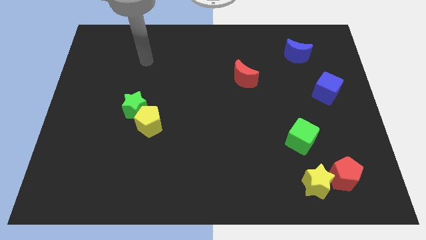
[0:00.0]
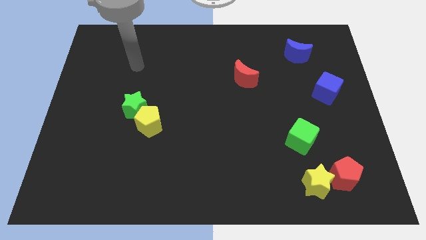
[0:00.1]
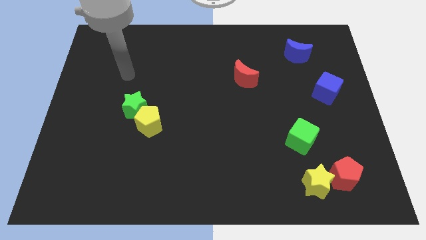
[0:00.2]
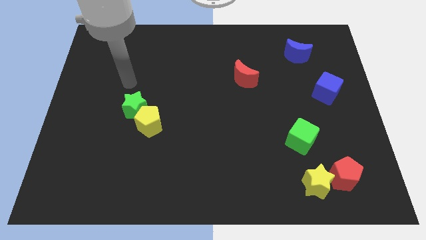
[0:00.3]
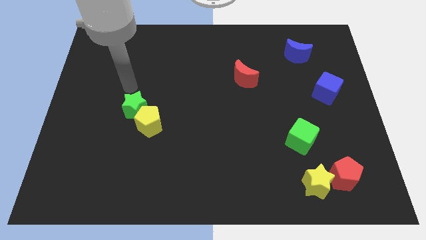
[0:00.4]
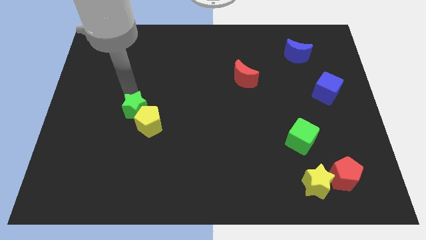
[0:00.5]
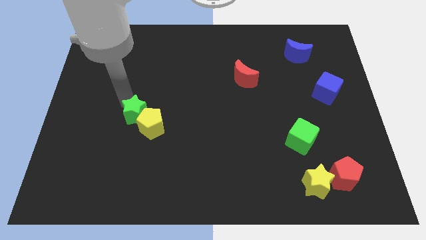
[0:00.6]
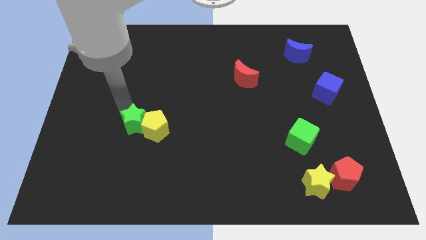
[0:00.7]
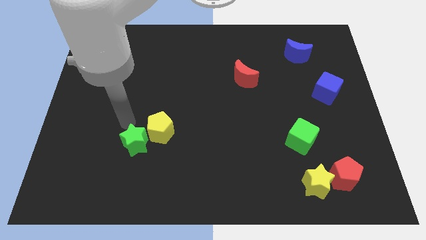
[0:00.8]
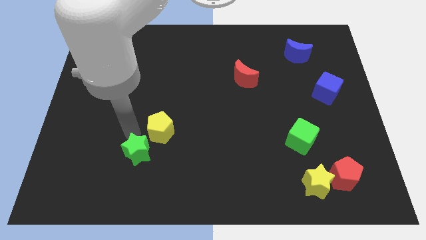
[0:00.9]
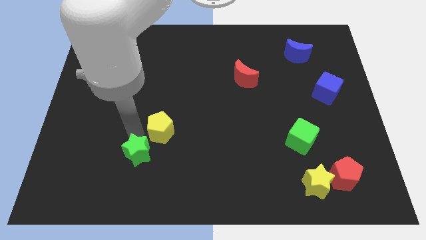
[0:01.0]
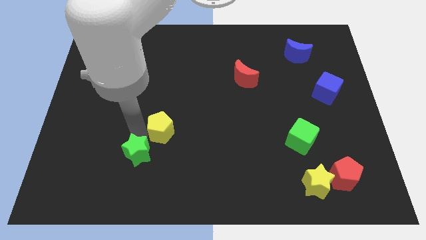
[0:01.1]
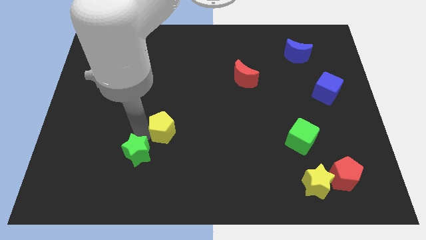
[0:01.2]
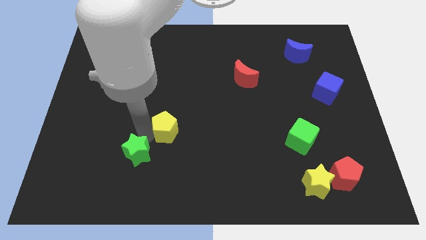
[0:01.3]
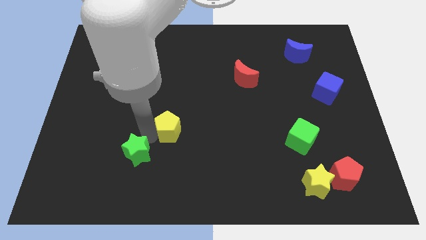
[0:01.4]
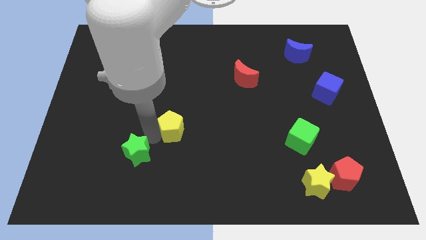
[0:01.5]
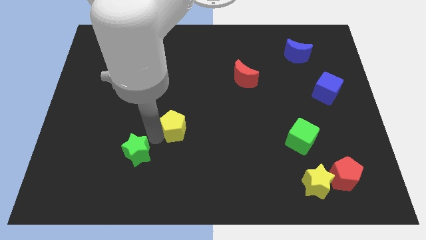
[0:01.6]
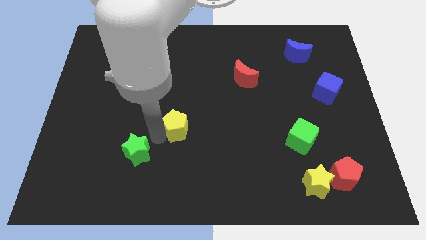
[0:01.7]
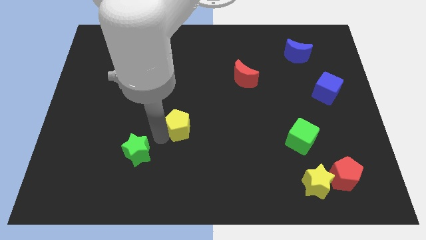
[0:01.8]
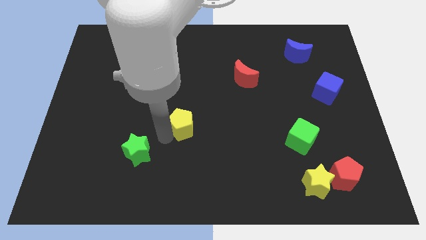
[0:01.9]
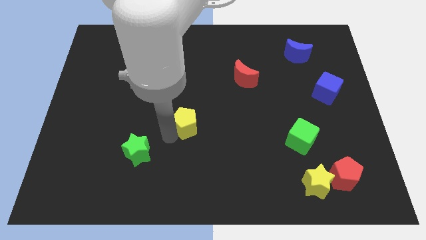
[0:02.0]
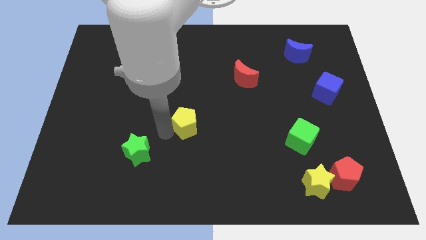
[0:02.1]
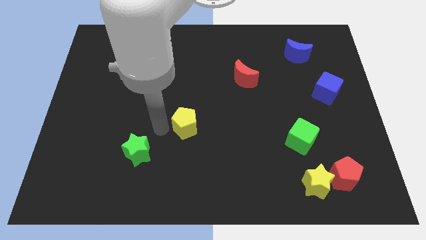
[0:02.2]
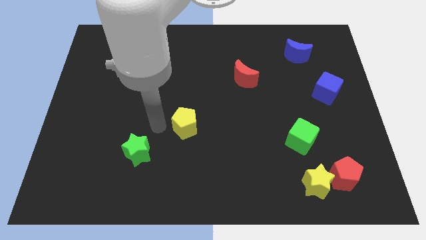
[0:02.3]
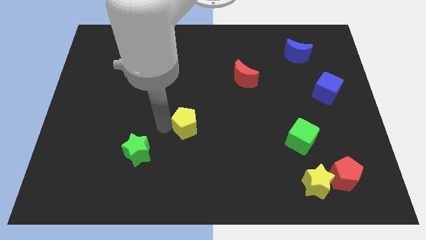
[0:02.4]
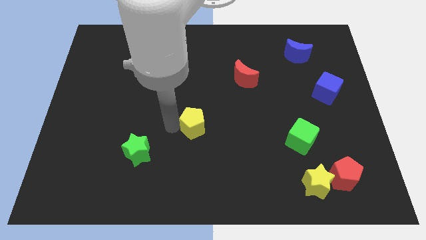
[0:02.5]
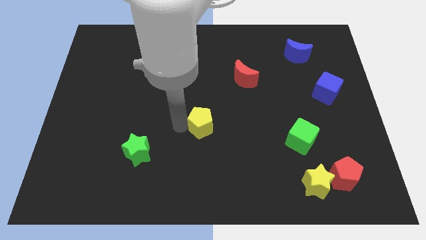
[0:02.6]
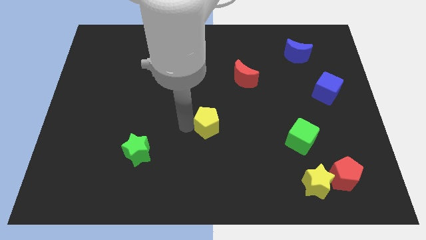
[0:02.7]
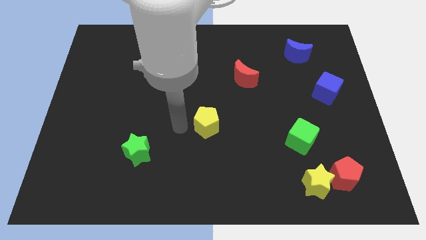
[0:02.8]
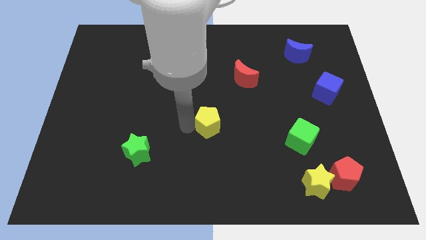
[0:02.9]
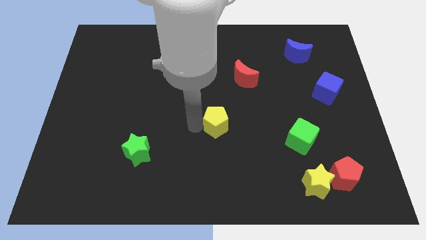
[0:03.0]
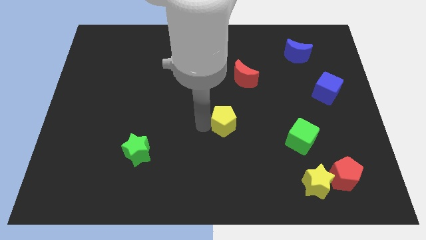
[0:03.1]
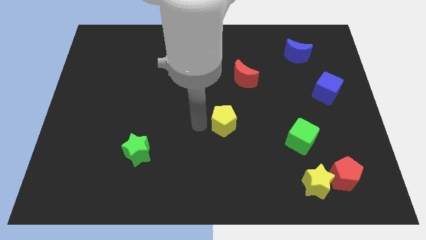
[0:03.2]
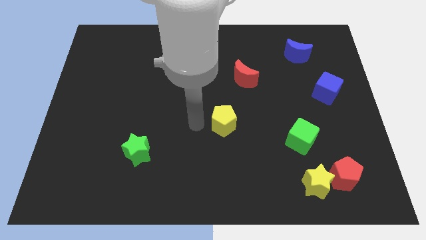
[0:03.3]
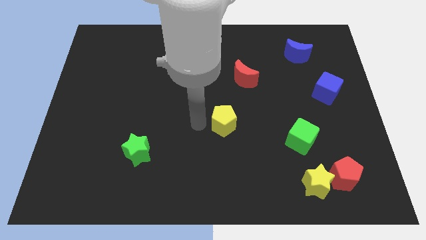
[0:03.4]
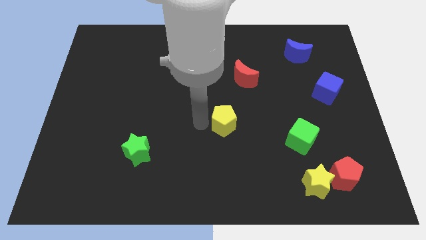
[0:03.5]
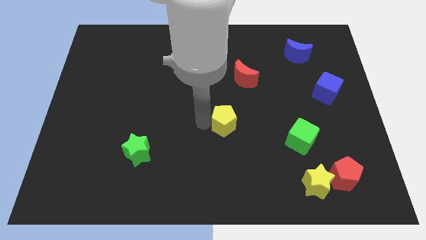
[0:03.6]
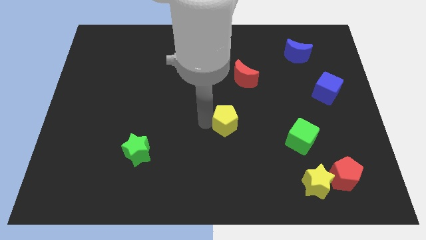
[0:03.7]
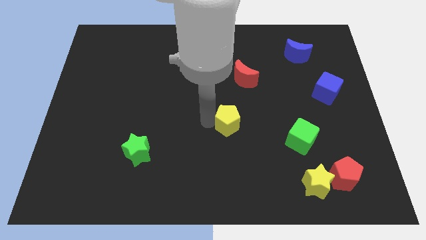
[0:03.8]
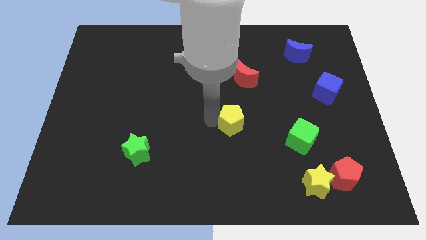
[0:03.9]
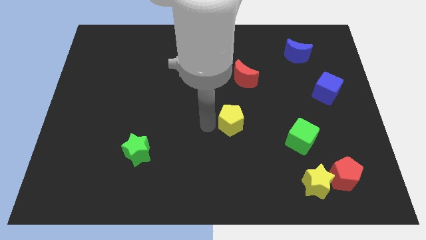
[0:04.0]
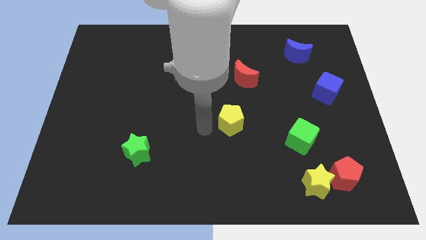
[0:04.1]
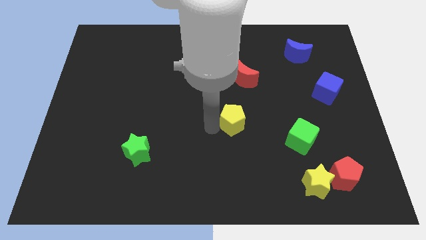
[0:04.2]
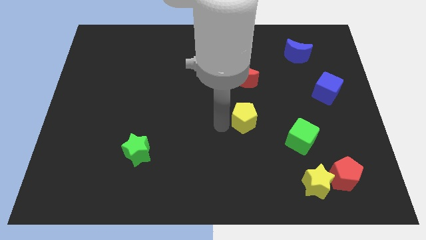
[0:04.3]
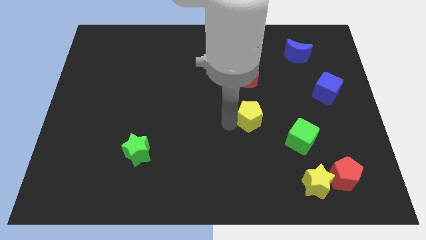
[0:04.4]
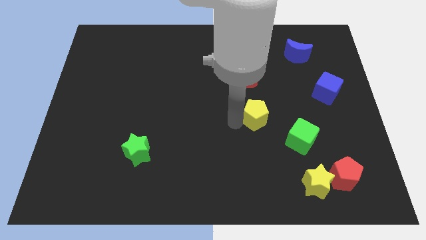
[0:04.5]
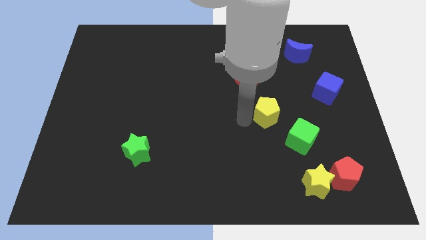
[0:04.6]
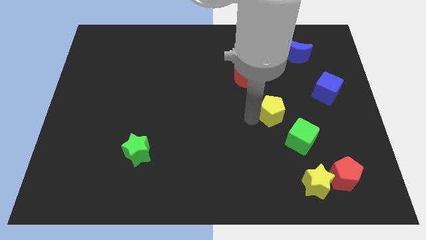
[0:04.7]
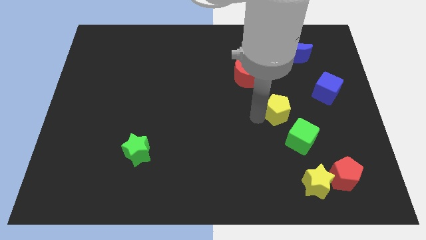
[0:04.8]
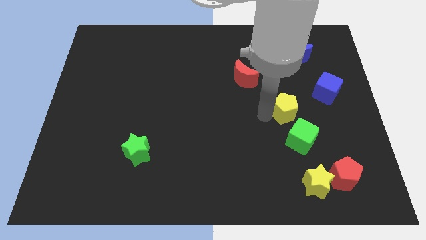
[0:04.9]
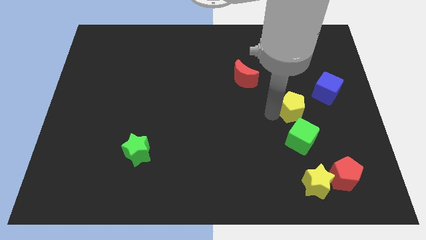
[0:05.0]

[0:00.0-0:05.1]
slide the yellow pentagon diagonally down and to the left of the blue cube

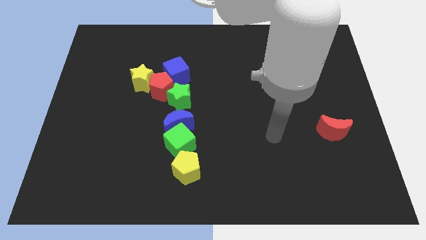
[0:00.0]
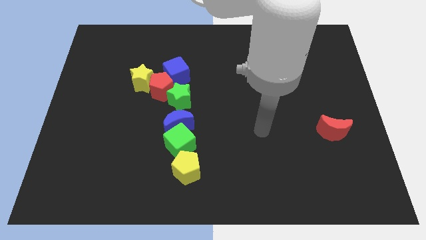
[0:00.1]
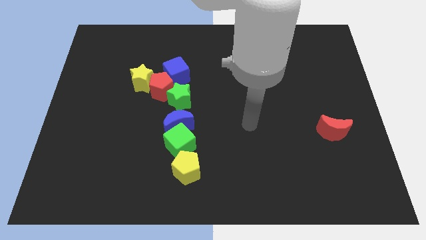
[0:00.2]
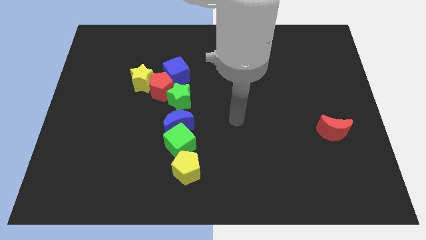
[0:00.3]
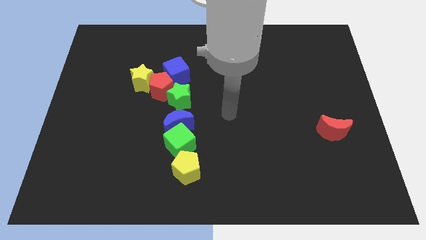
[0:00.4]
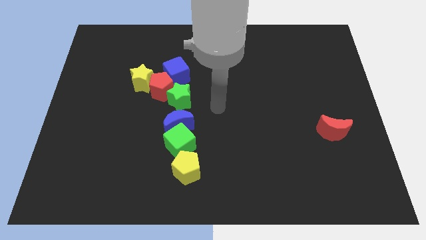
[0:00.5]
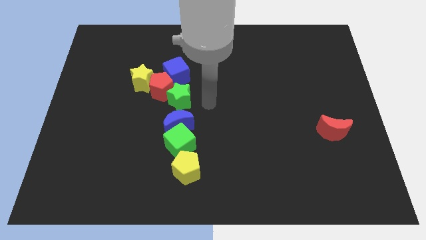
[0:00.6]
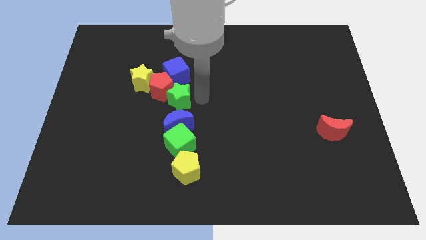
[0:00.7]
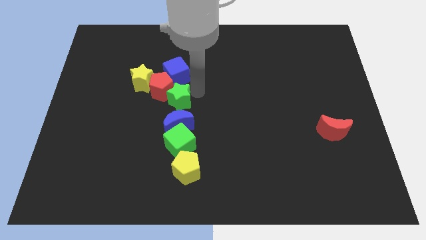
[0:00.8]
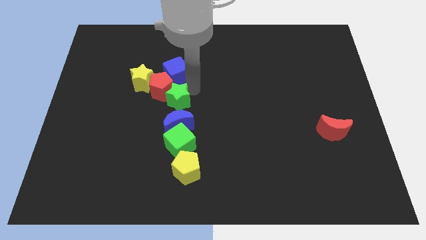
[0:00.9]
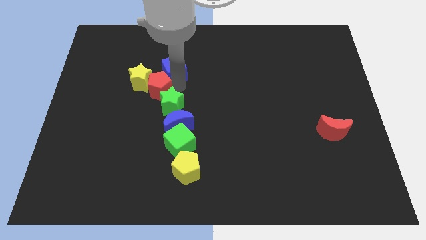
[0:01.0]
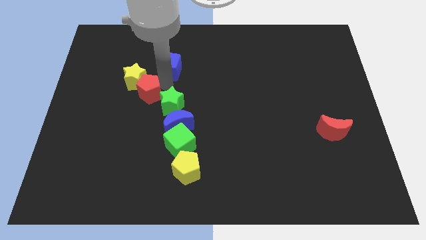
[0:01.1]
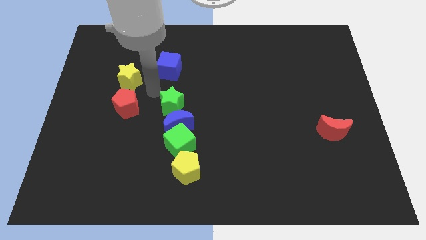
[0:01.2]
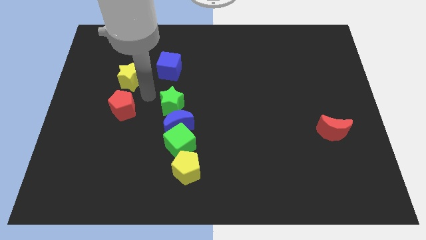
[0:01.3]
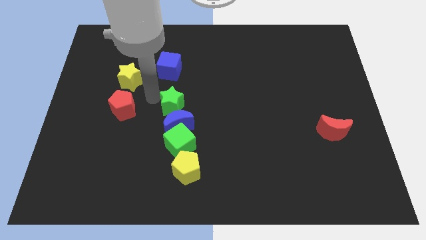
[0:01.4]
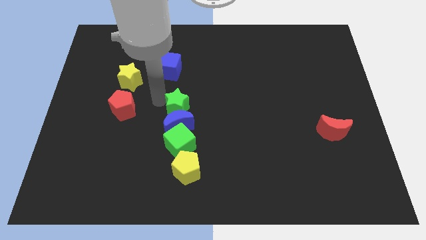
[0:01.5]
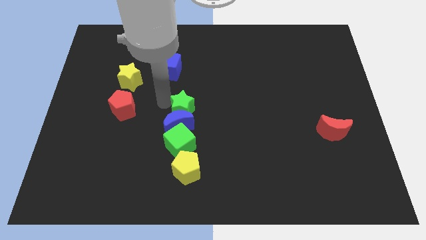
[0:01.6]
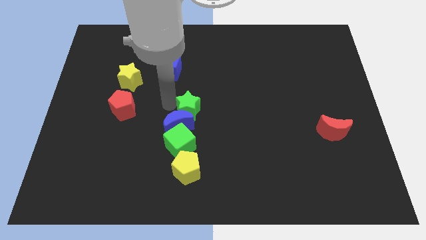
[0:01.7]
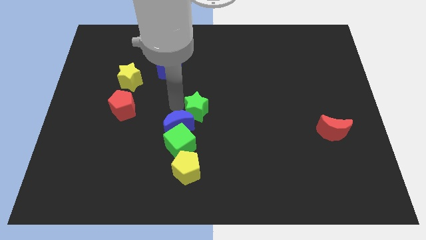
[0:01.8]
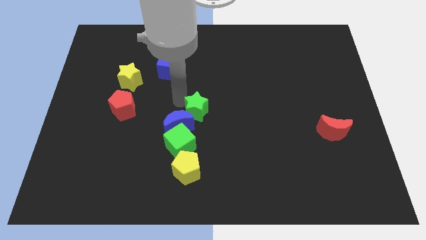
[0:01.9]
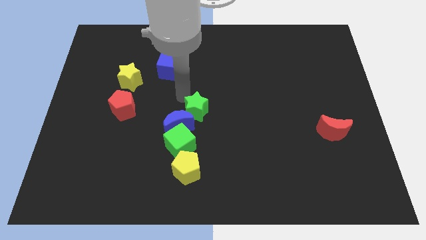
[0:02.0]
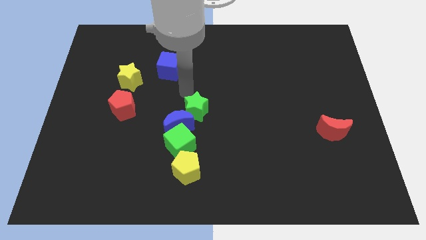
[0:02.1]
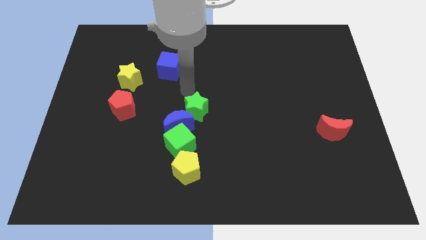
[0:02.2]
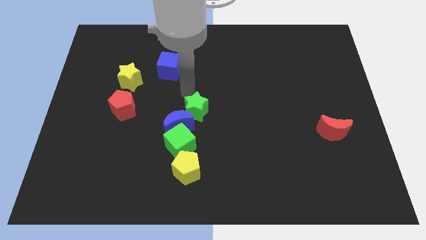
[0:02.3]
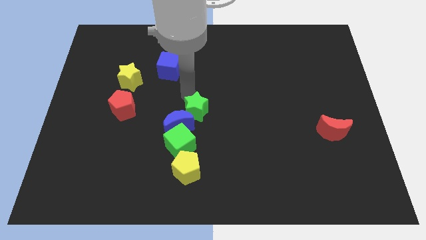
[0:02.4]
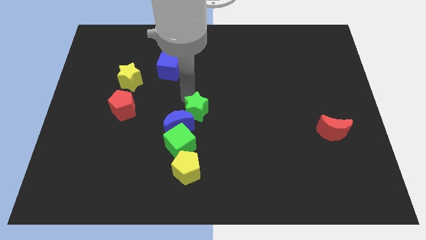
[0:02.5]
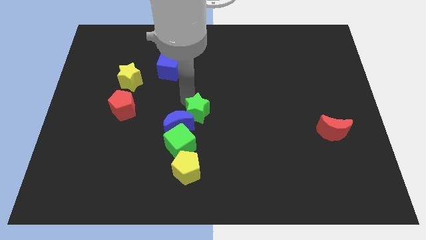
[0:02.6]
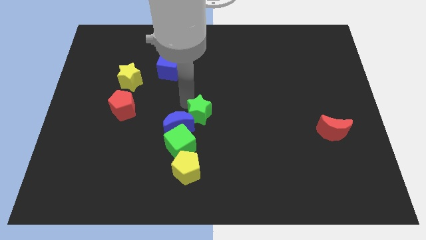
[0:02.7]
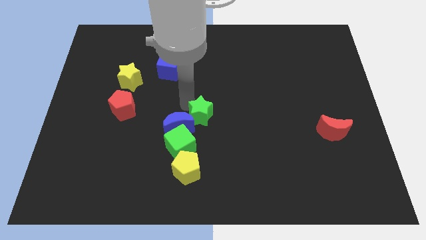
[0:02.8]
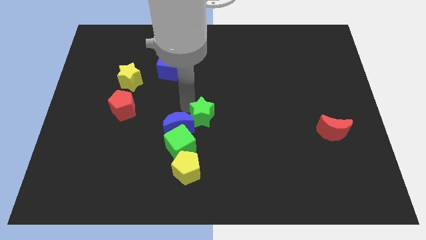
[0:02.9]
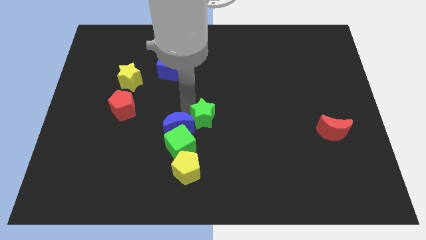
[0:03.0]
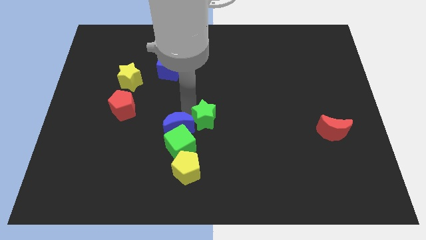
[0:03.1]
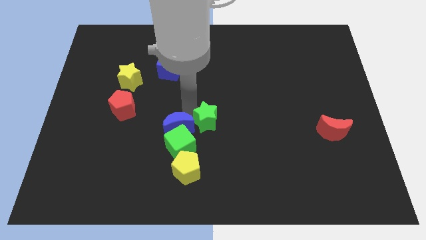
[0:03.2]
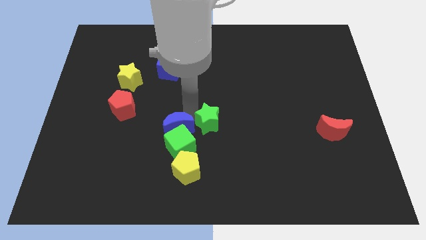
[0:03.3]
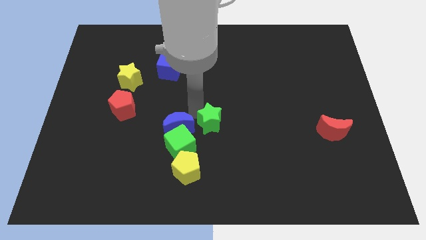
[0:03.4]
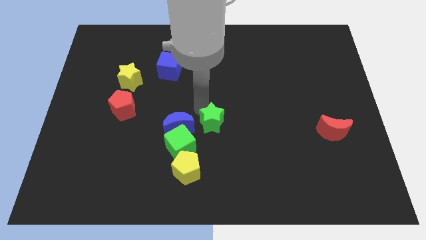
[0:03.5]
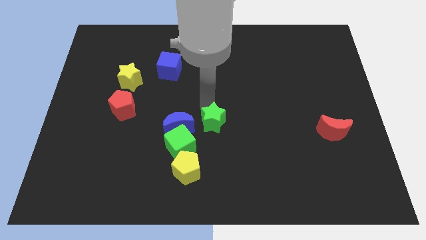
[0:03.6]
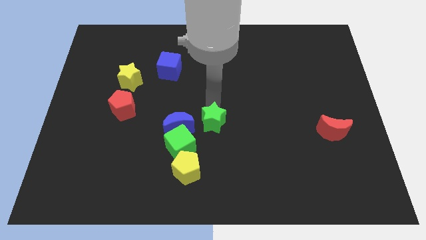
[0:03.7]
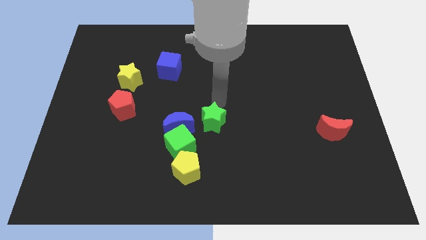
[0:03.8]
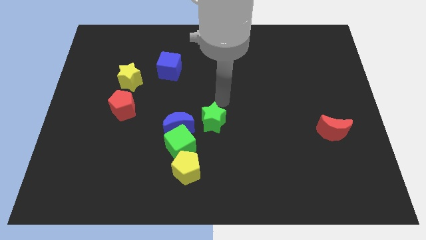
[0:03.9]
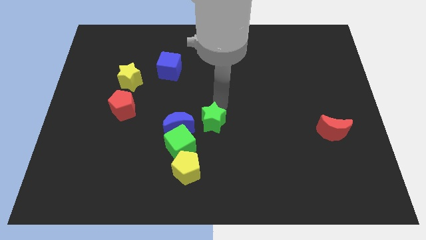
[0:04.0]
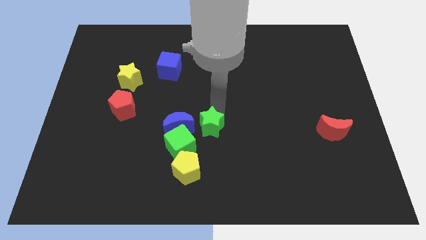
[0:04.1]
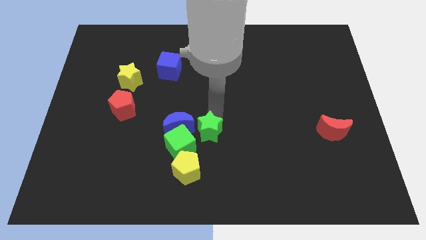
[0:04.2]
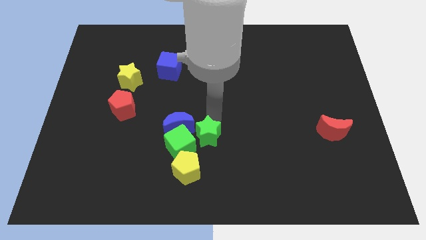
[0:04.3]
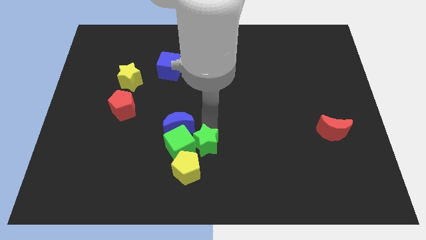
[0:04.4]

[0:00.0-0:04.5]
slide the green star diagonally down and to the right of the green cube
